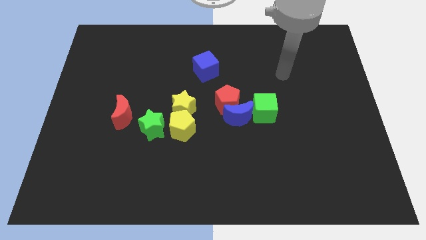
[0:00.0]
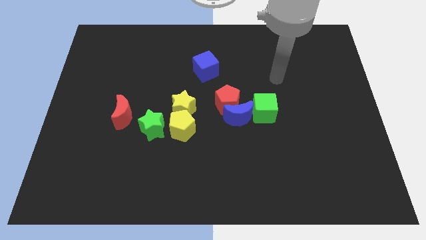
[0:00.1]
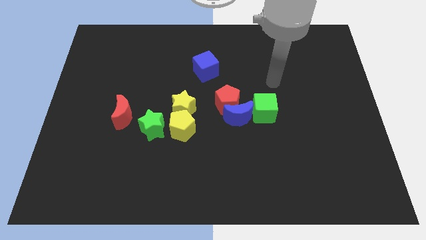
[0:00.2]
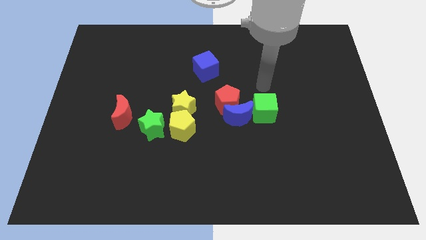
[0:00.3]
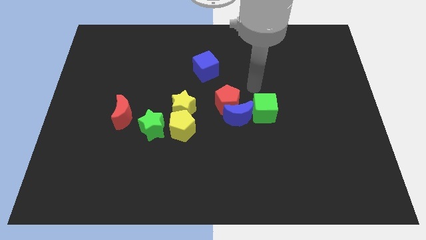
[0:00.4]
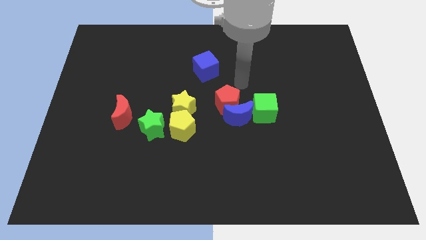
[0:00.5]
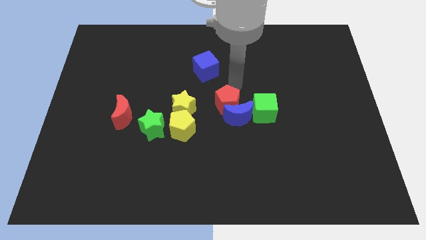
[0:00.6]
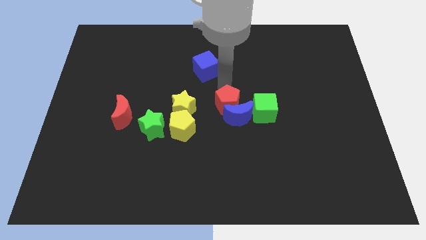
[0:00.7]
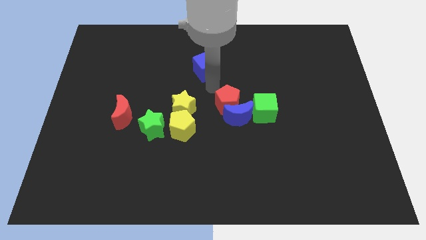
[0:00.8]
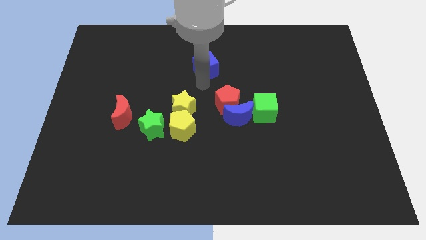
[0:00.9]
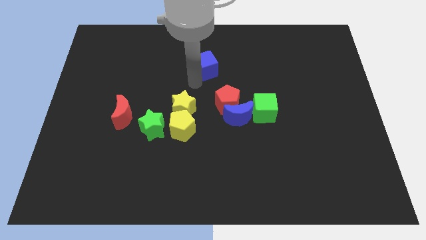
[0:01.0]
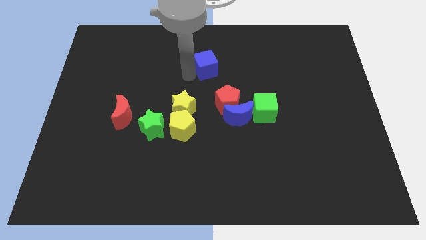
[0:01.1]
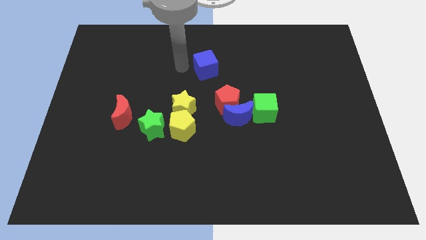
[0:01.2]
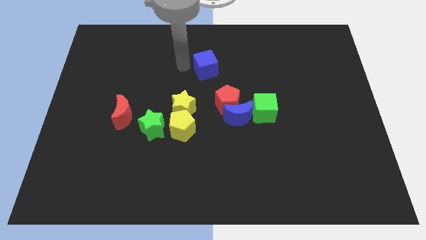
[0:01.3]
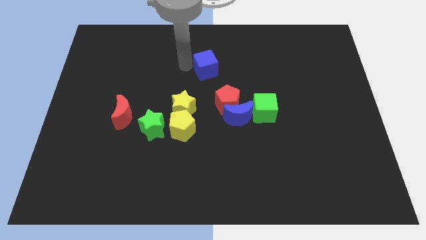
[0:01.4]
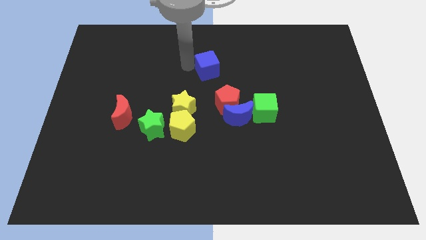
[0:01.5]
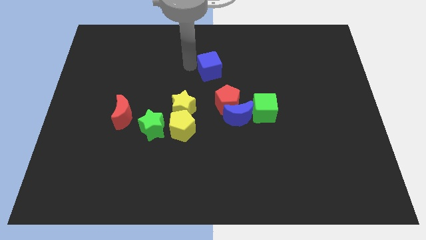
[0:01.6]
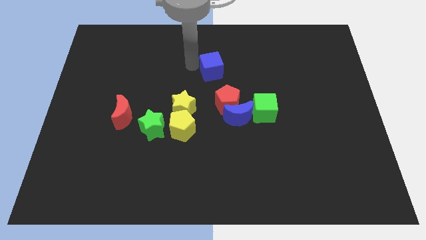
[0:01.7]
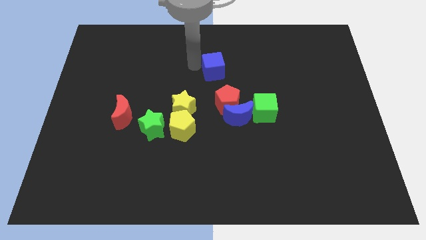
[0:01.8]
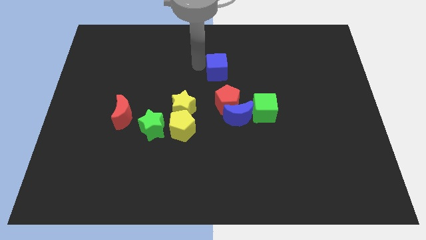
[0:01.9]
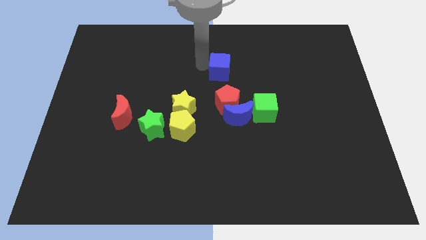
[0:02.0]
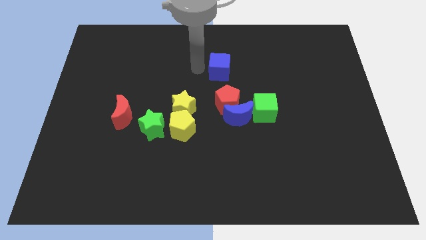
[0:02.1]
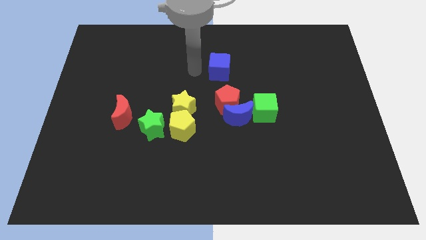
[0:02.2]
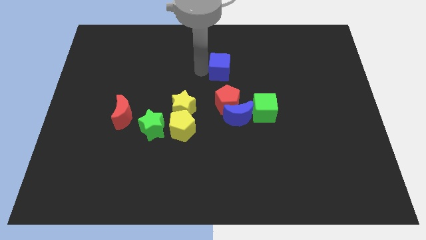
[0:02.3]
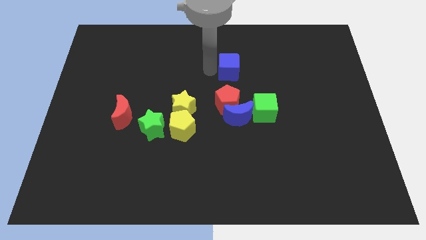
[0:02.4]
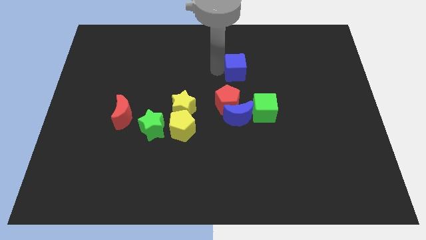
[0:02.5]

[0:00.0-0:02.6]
slide the blue cube a little bit to the right

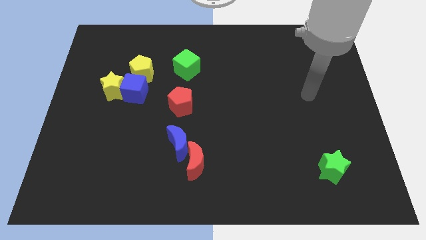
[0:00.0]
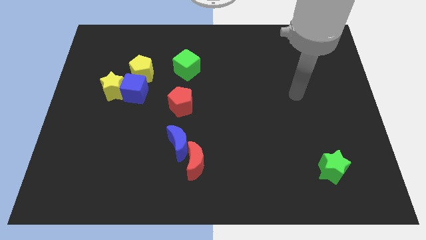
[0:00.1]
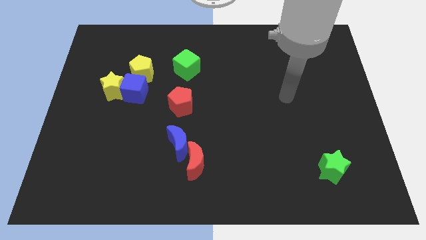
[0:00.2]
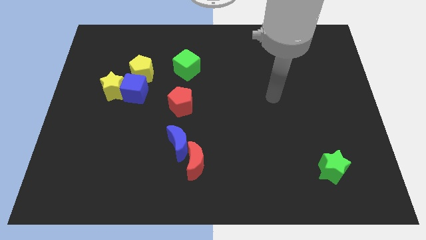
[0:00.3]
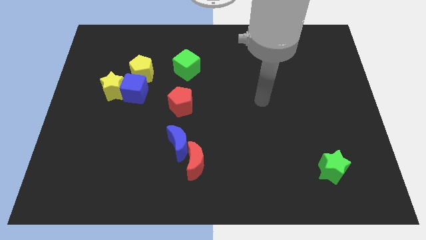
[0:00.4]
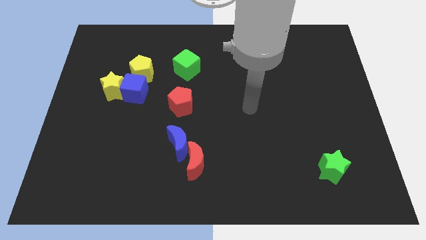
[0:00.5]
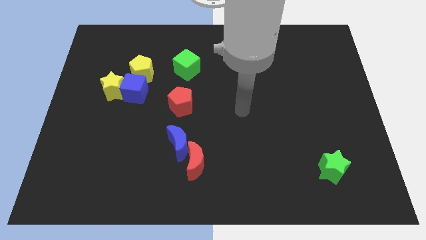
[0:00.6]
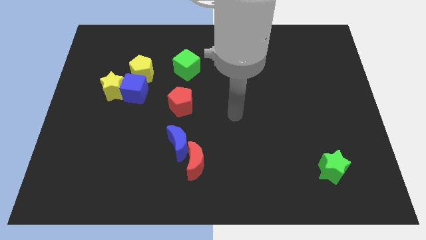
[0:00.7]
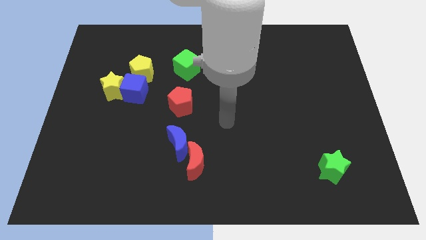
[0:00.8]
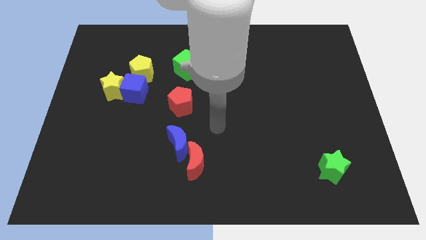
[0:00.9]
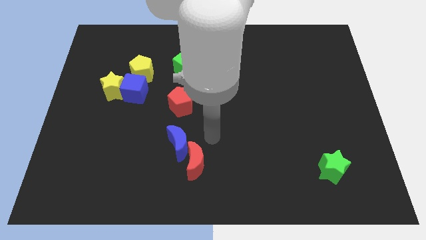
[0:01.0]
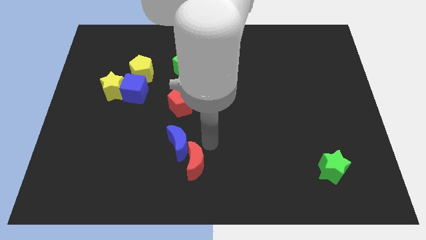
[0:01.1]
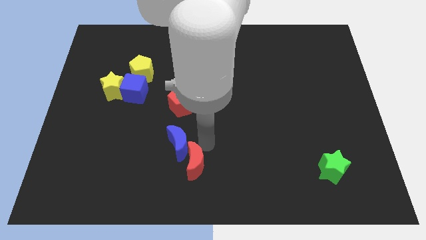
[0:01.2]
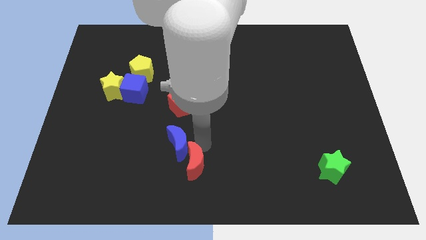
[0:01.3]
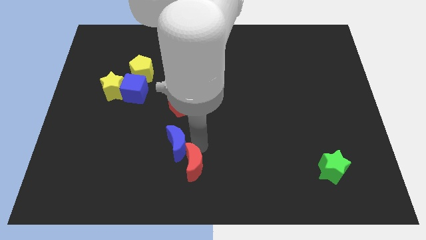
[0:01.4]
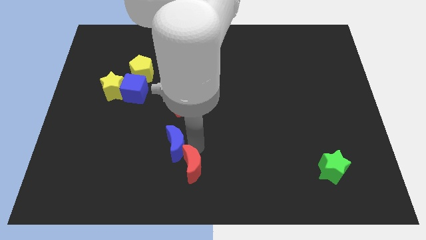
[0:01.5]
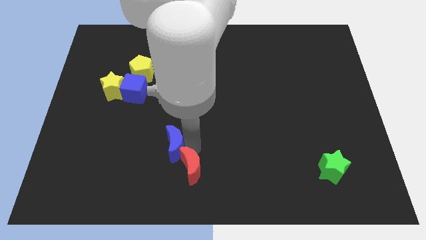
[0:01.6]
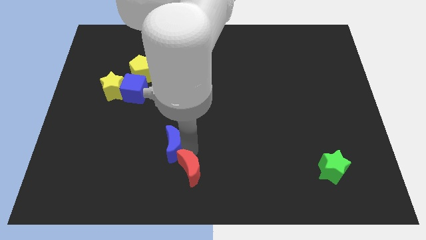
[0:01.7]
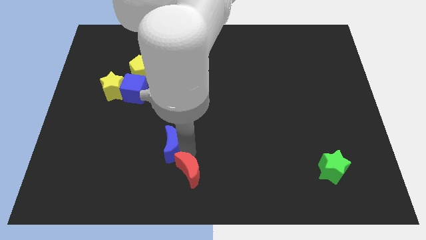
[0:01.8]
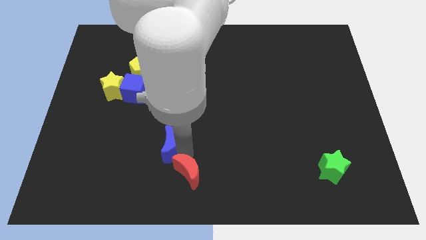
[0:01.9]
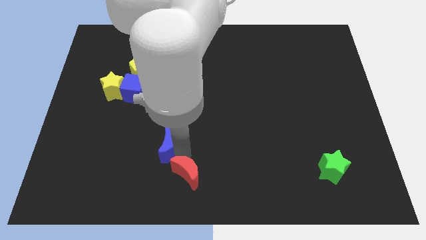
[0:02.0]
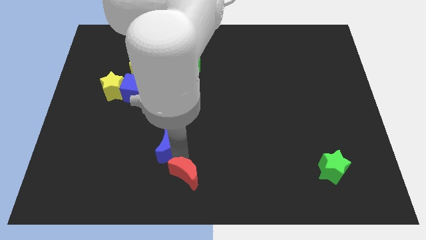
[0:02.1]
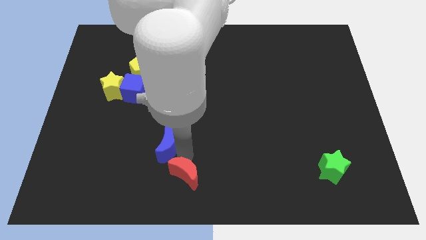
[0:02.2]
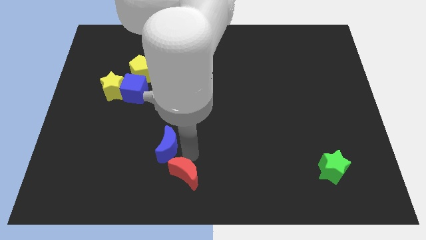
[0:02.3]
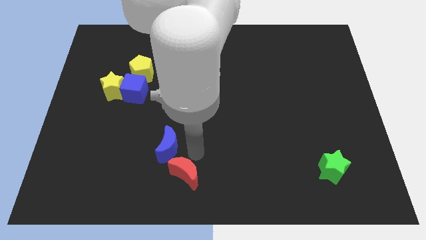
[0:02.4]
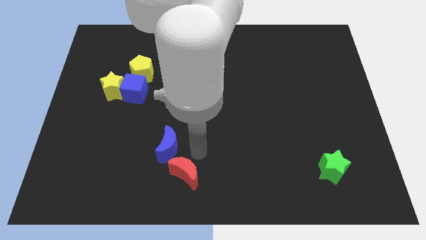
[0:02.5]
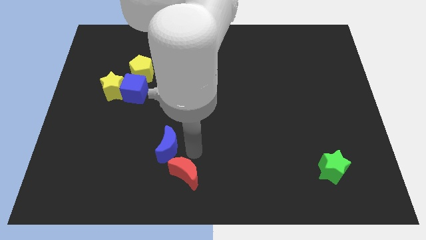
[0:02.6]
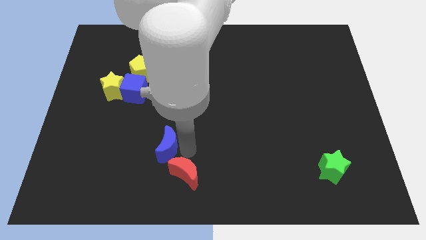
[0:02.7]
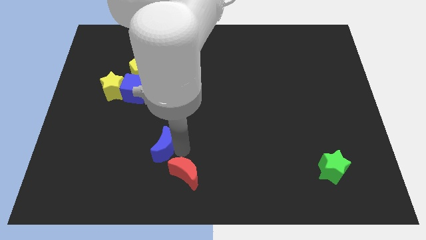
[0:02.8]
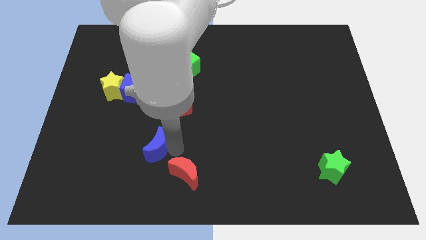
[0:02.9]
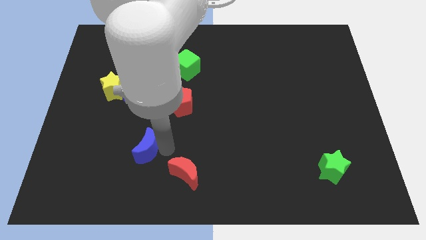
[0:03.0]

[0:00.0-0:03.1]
push the blue moon to the left somewhat

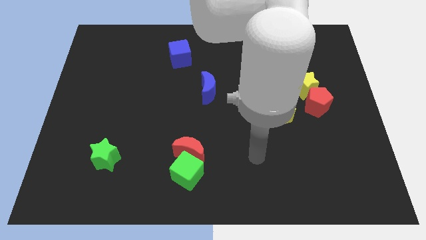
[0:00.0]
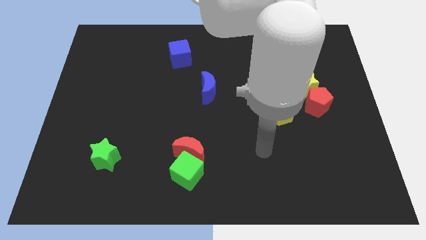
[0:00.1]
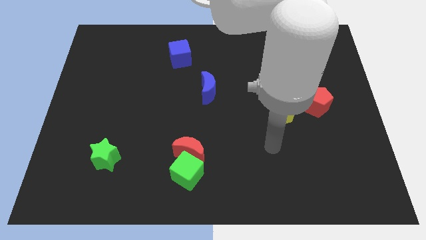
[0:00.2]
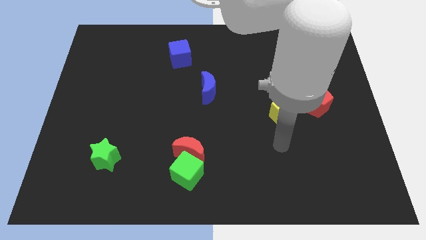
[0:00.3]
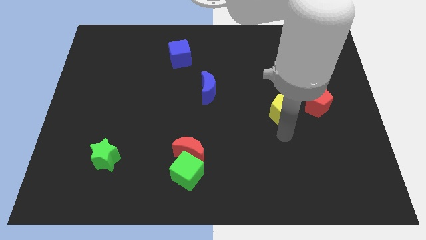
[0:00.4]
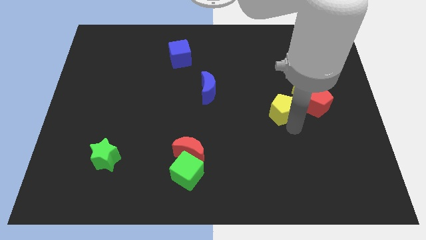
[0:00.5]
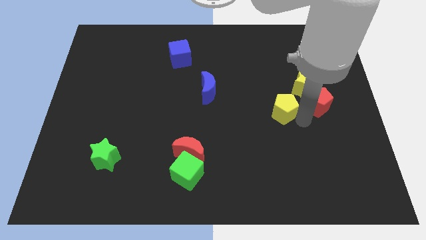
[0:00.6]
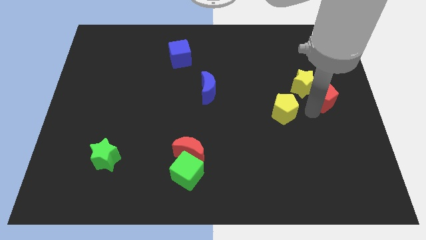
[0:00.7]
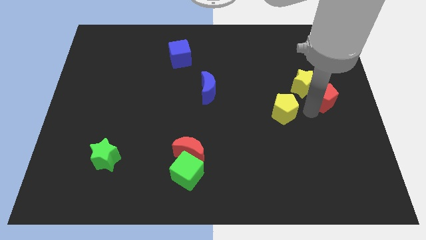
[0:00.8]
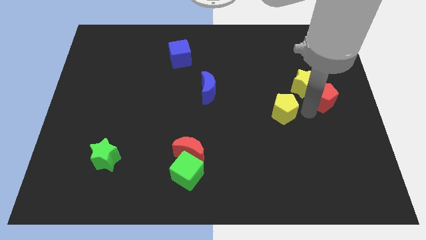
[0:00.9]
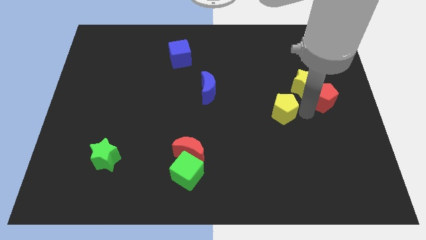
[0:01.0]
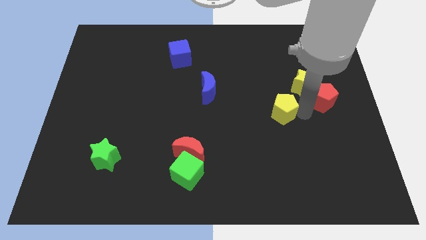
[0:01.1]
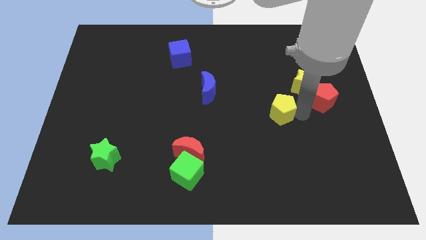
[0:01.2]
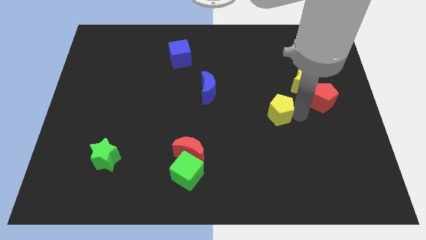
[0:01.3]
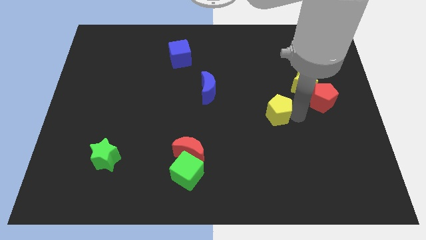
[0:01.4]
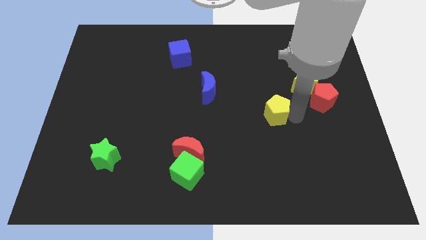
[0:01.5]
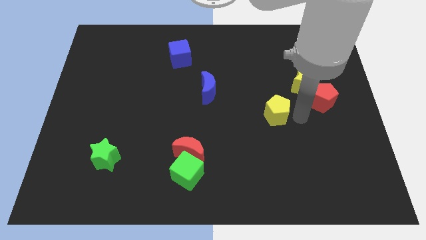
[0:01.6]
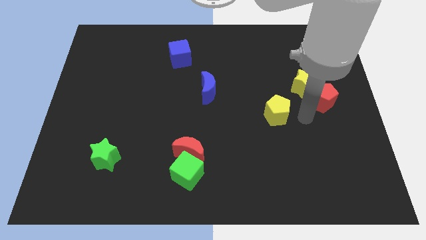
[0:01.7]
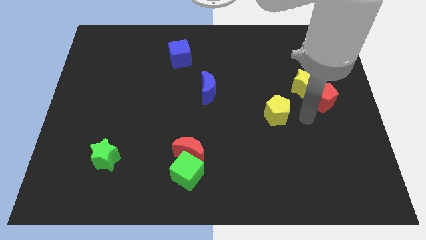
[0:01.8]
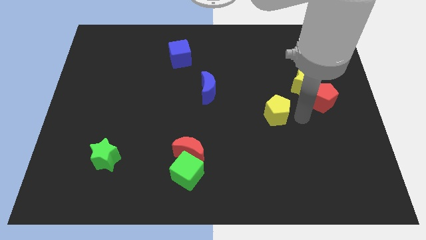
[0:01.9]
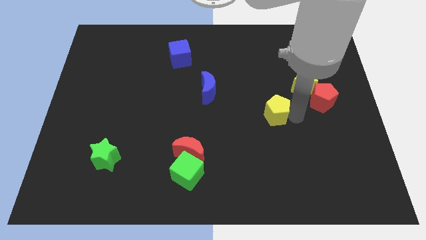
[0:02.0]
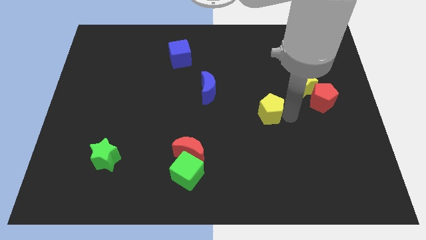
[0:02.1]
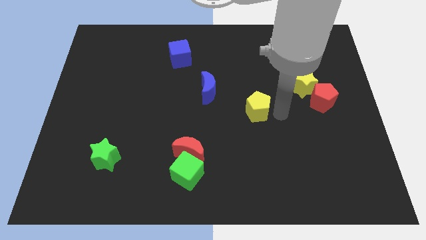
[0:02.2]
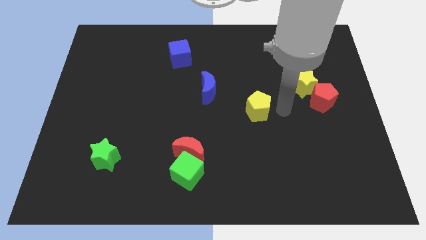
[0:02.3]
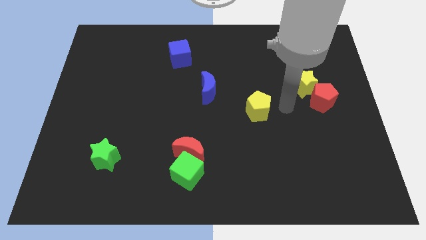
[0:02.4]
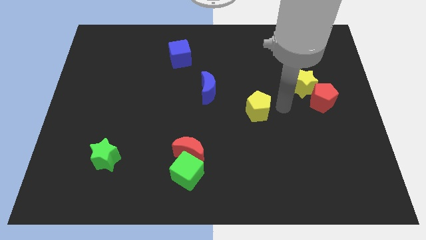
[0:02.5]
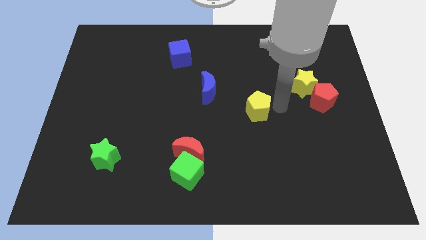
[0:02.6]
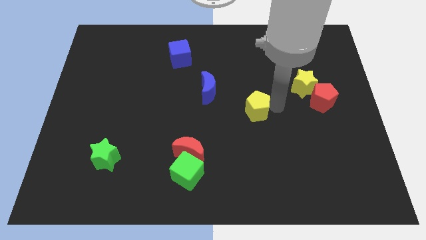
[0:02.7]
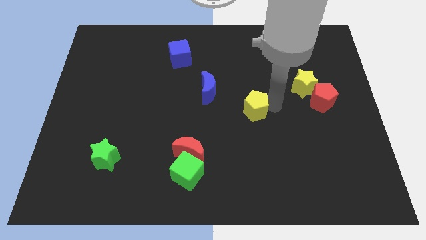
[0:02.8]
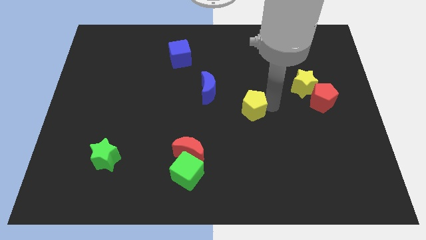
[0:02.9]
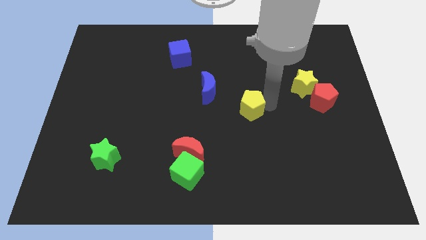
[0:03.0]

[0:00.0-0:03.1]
move the yellow pentagon somewhat to the left
